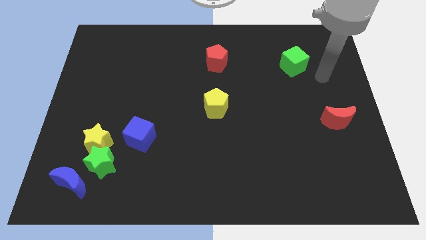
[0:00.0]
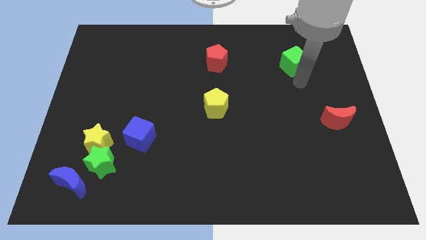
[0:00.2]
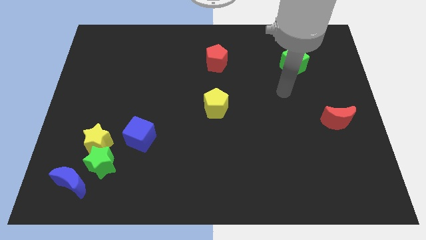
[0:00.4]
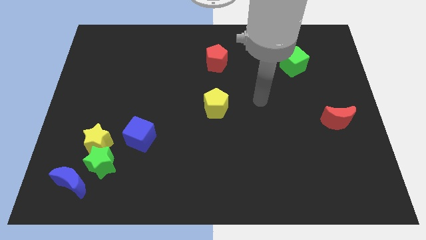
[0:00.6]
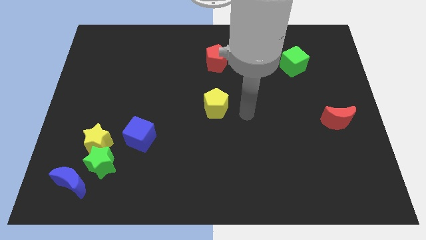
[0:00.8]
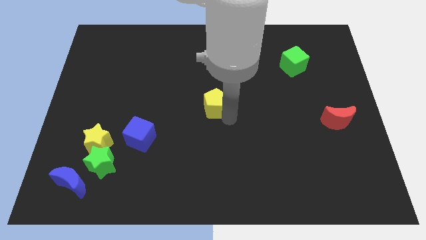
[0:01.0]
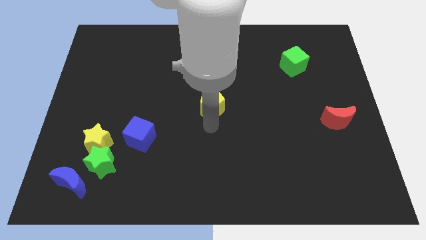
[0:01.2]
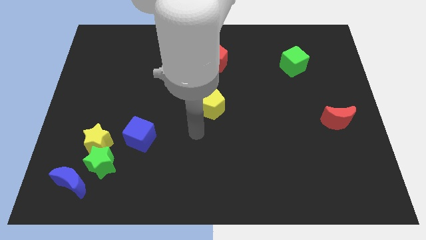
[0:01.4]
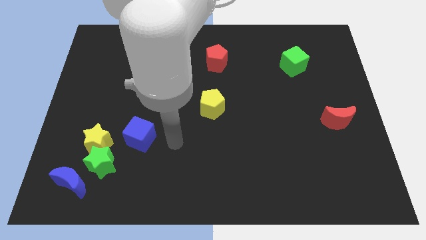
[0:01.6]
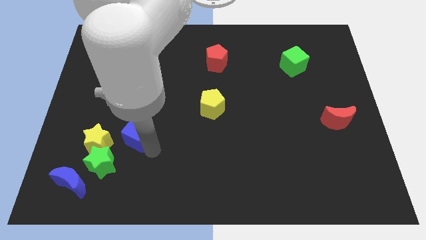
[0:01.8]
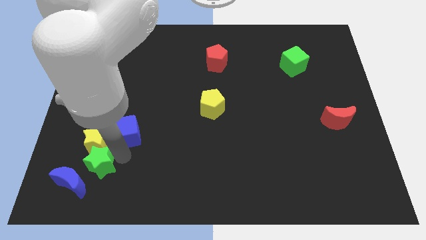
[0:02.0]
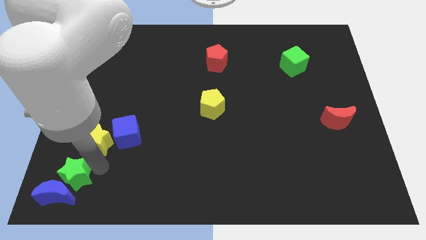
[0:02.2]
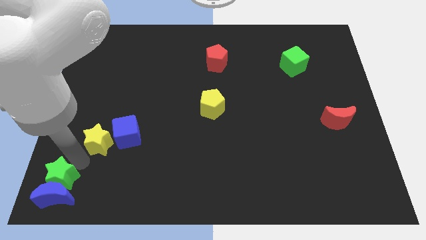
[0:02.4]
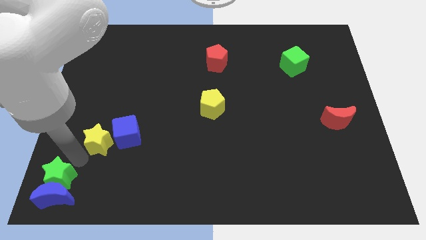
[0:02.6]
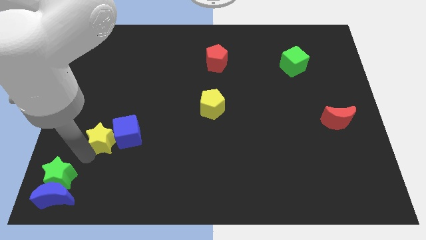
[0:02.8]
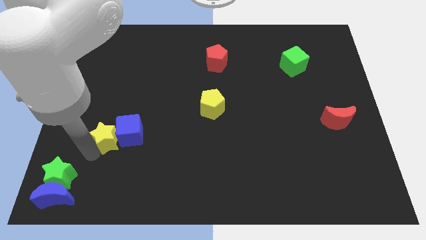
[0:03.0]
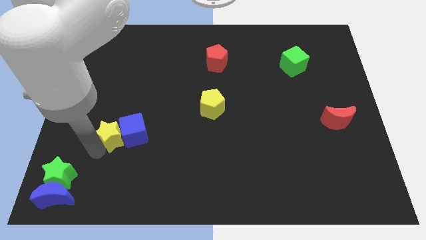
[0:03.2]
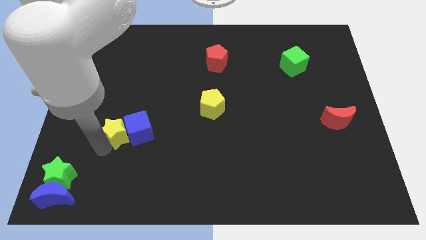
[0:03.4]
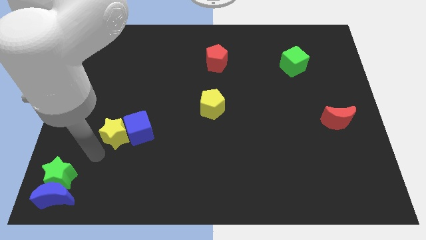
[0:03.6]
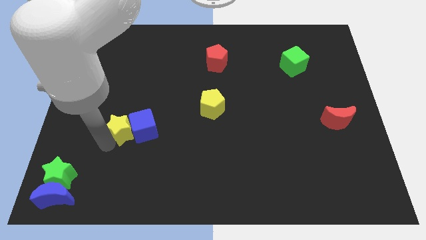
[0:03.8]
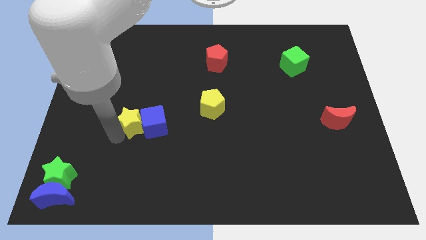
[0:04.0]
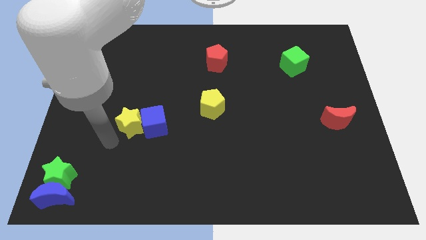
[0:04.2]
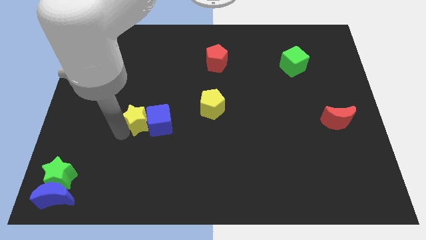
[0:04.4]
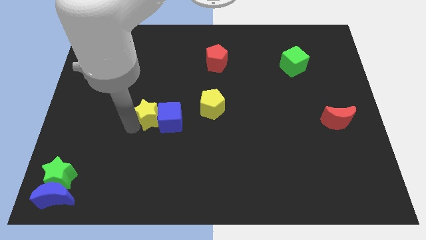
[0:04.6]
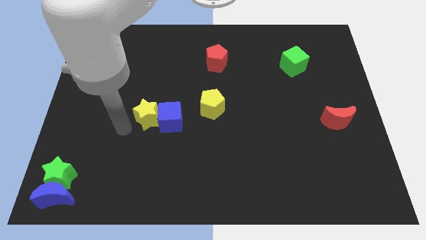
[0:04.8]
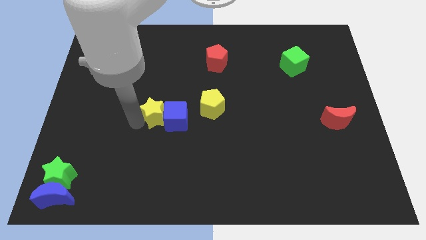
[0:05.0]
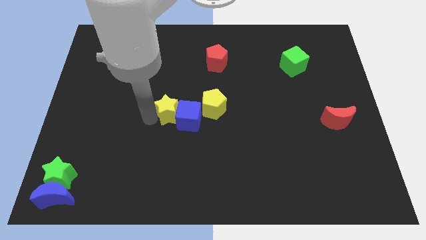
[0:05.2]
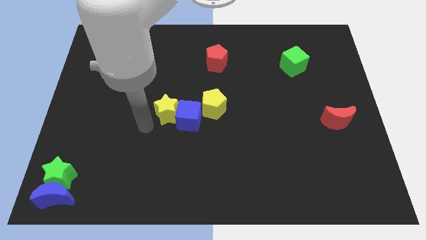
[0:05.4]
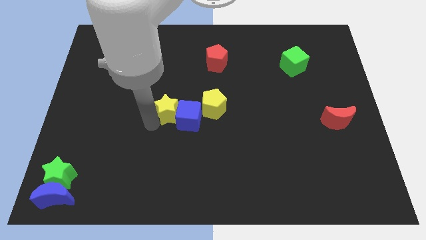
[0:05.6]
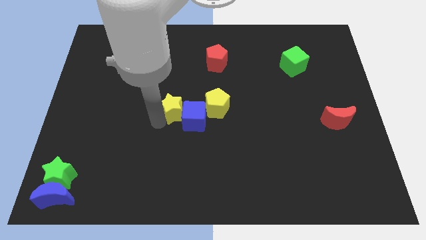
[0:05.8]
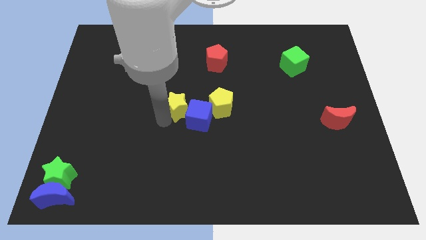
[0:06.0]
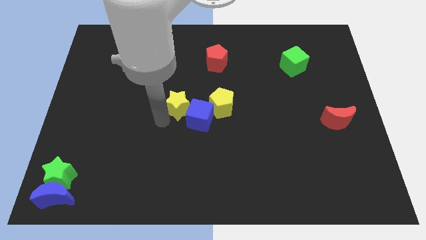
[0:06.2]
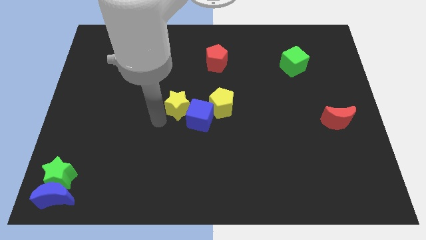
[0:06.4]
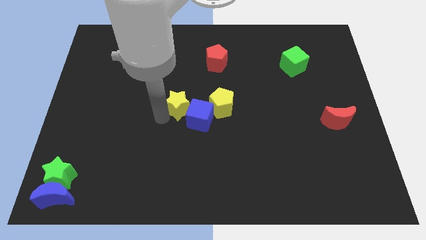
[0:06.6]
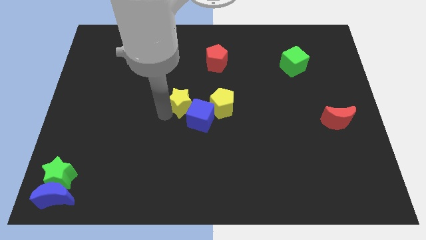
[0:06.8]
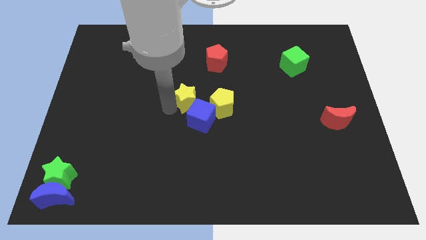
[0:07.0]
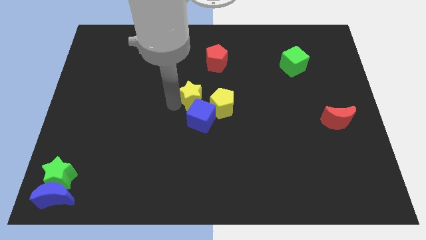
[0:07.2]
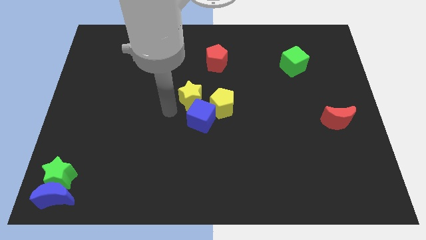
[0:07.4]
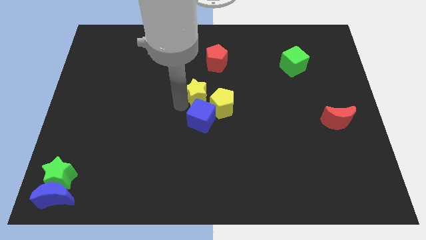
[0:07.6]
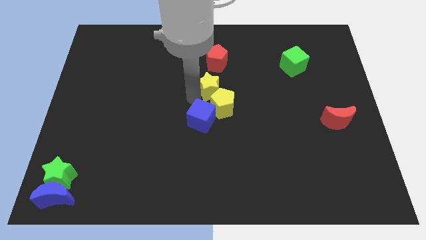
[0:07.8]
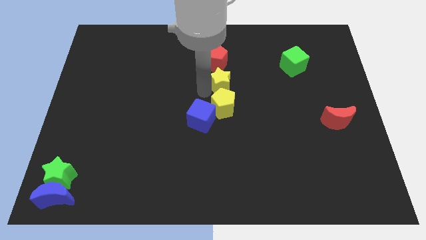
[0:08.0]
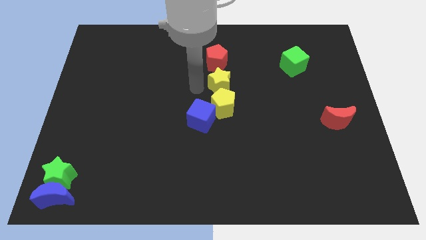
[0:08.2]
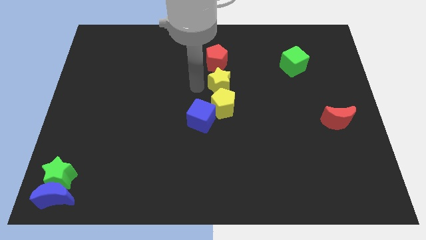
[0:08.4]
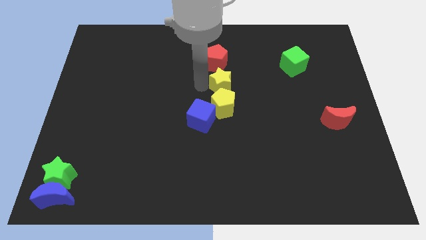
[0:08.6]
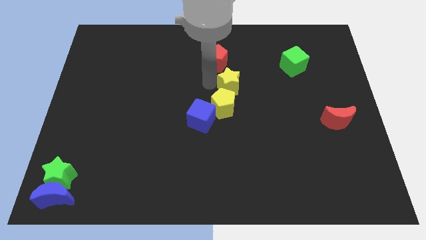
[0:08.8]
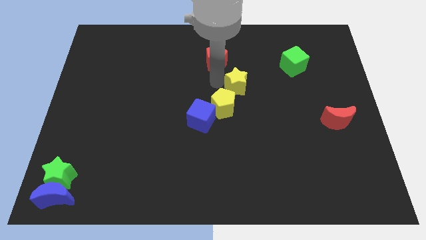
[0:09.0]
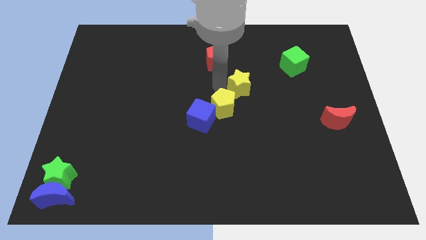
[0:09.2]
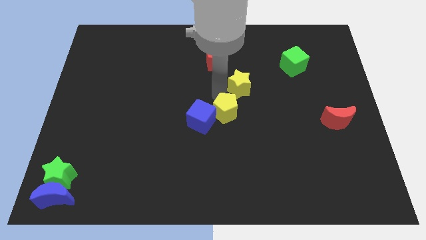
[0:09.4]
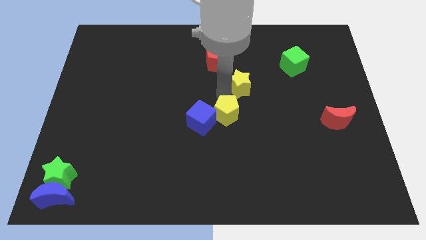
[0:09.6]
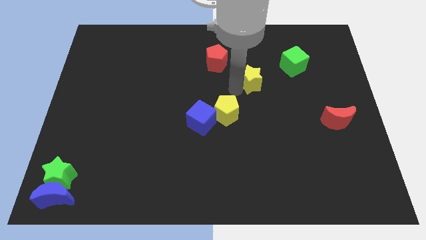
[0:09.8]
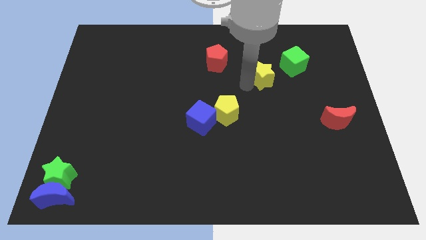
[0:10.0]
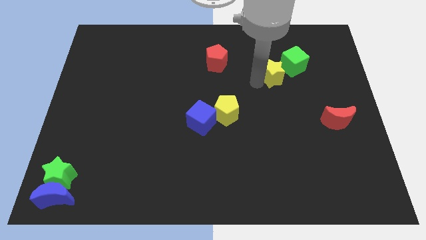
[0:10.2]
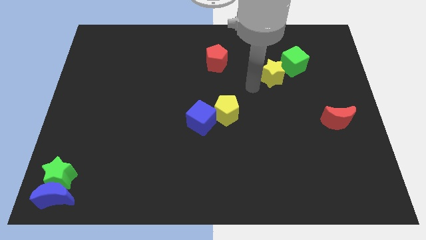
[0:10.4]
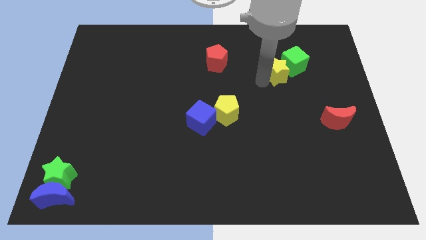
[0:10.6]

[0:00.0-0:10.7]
slide the yellow star close to the green cube

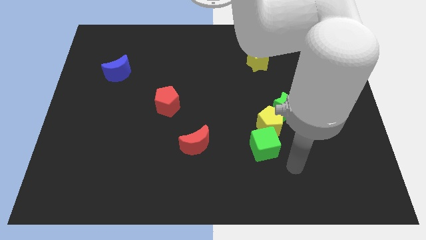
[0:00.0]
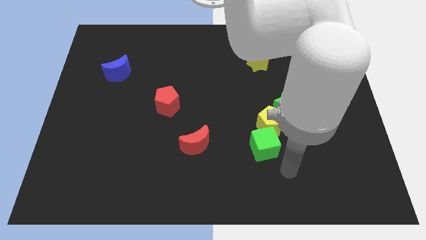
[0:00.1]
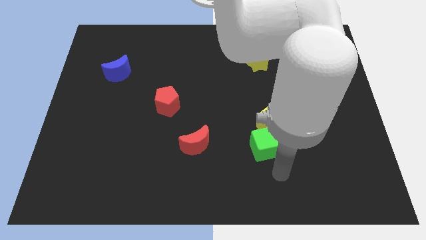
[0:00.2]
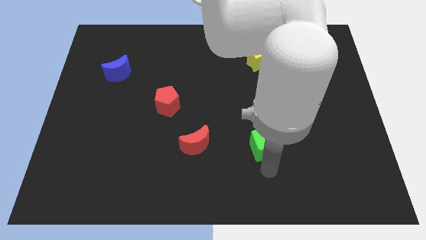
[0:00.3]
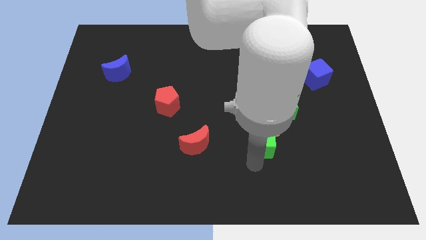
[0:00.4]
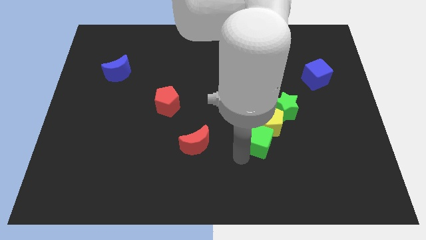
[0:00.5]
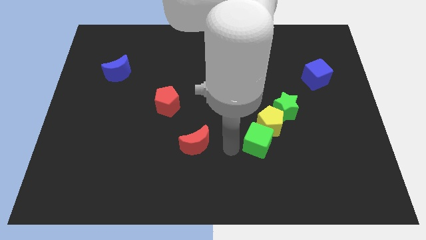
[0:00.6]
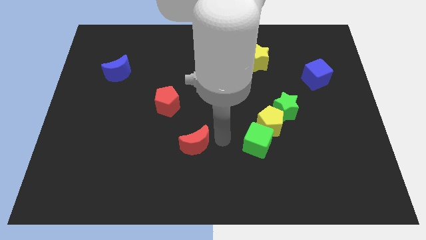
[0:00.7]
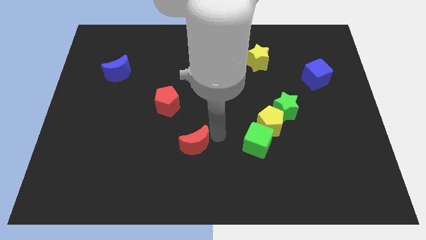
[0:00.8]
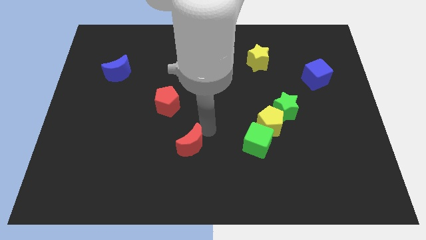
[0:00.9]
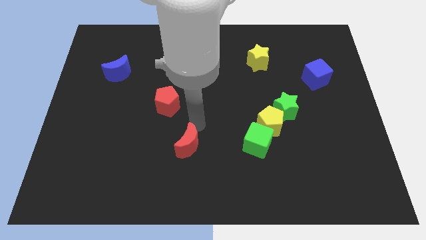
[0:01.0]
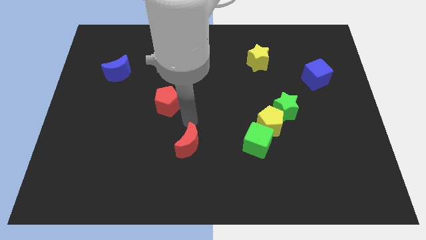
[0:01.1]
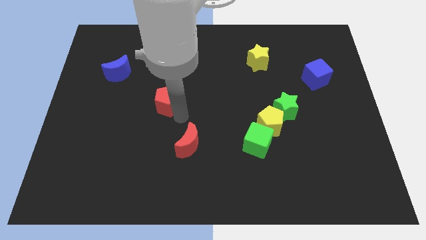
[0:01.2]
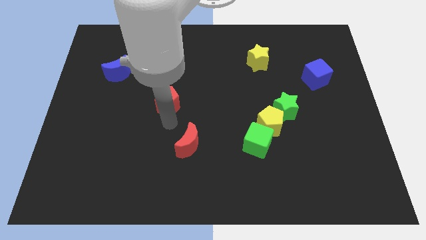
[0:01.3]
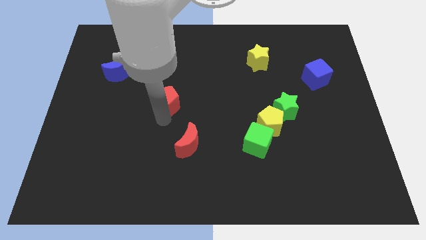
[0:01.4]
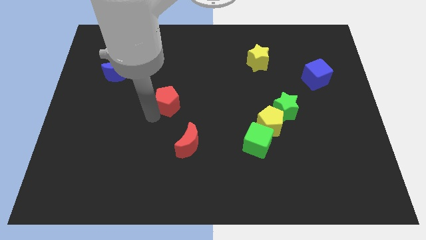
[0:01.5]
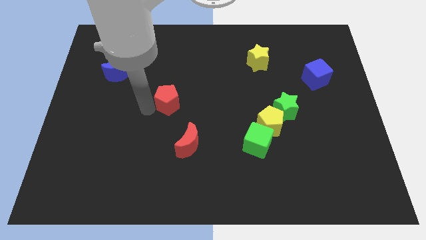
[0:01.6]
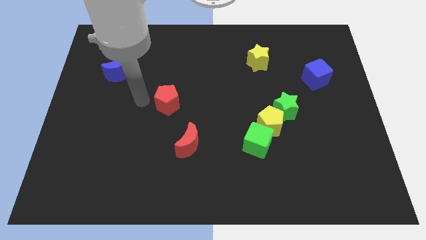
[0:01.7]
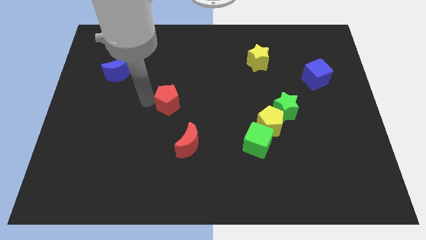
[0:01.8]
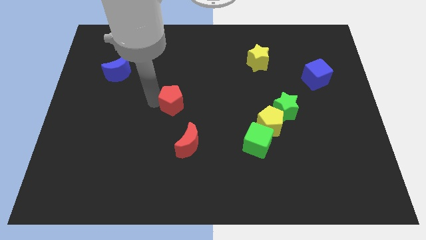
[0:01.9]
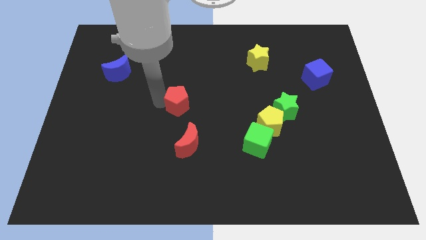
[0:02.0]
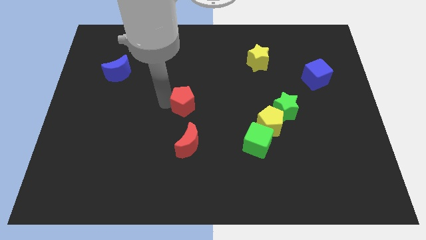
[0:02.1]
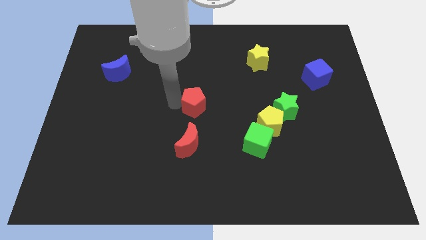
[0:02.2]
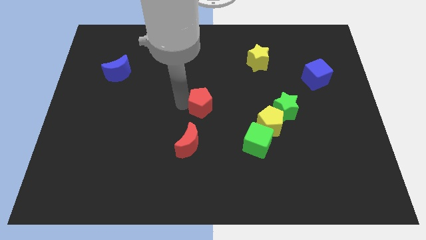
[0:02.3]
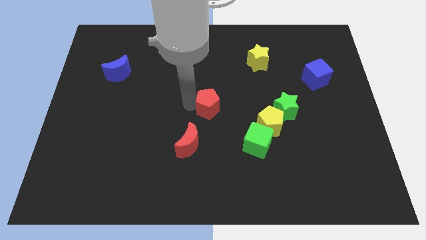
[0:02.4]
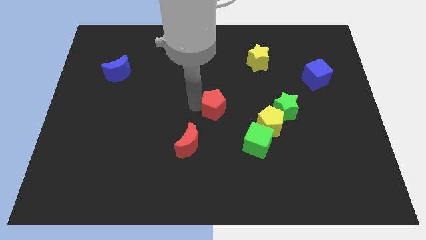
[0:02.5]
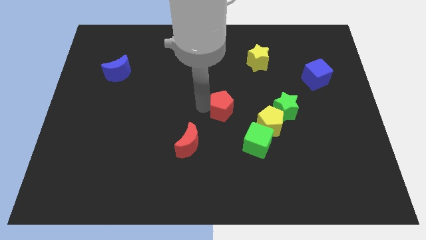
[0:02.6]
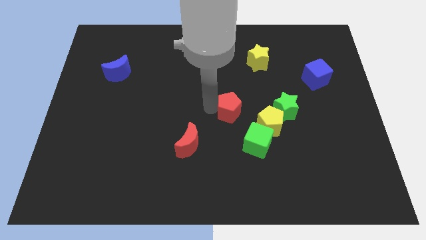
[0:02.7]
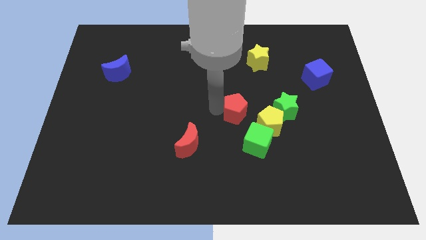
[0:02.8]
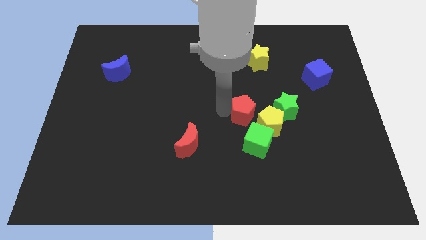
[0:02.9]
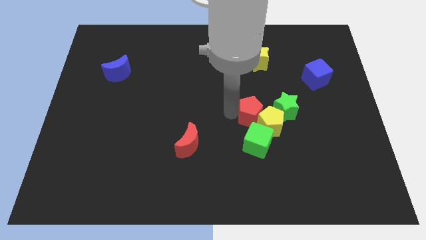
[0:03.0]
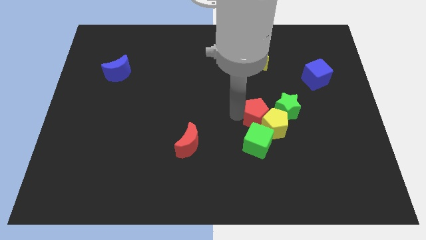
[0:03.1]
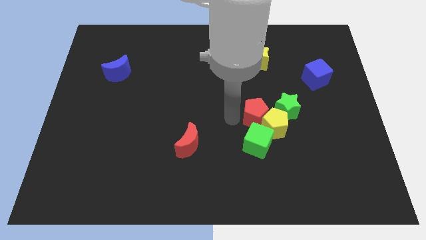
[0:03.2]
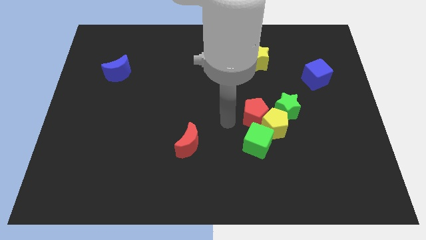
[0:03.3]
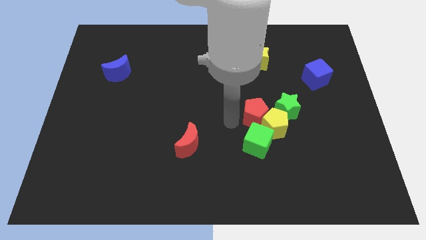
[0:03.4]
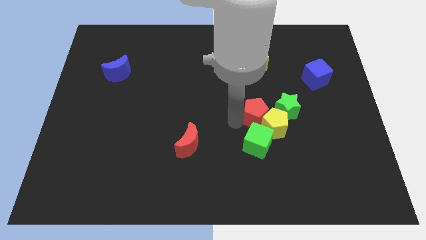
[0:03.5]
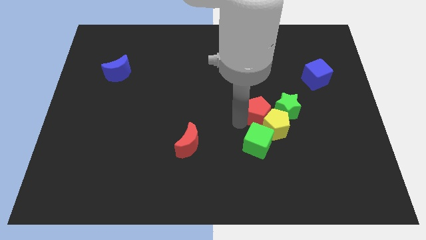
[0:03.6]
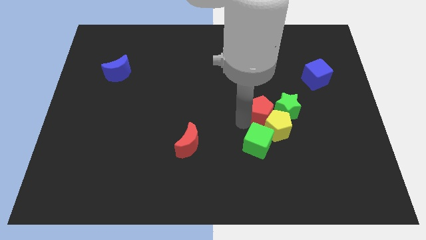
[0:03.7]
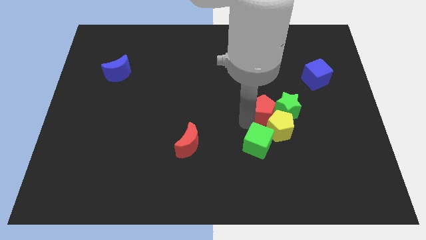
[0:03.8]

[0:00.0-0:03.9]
push the red pentagon towards the green star
